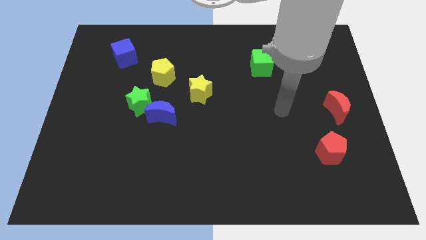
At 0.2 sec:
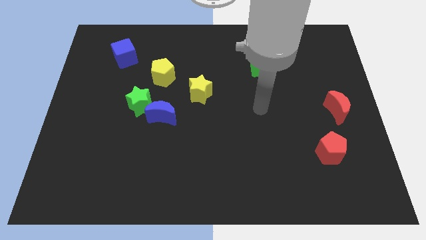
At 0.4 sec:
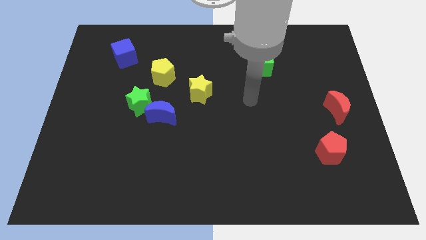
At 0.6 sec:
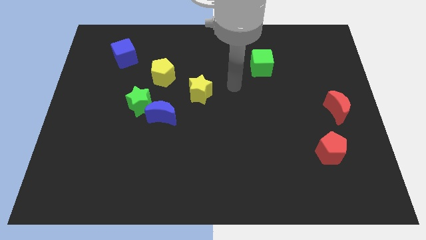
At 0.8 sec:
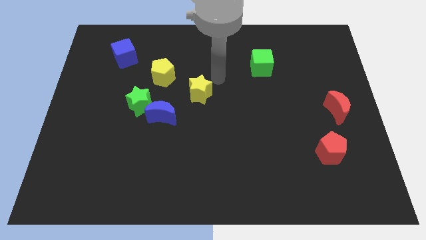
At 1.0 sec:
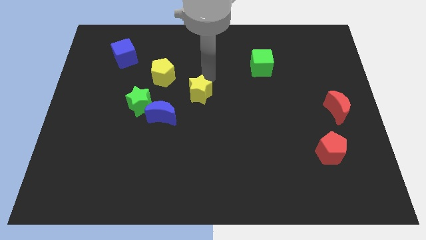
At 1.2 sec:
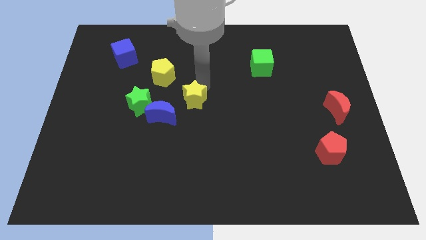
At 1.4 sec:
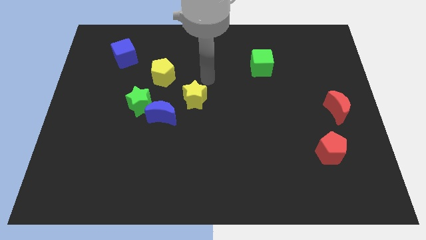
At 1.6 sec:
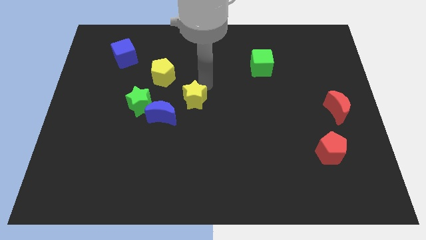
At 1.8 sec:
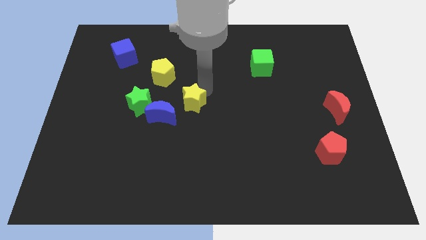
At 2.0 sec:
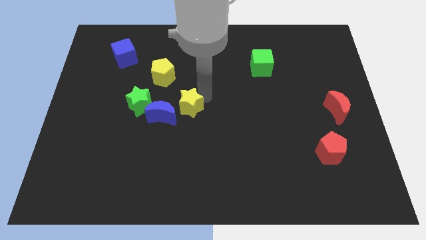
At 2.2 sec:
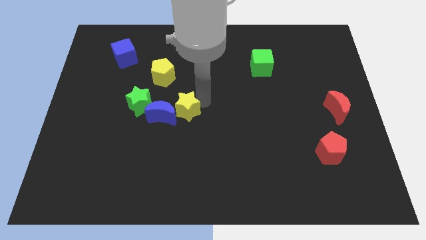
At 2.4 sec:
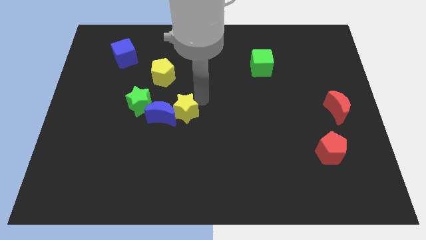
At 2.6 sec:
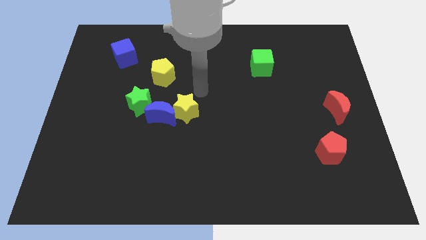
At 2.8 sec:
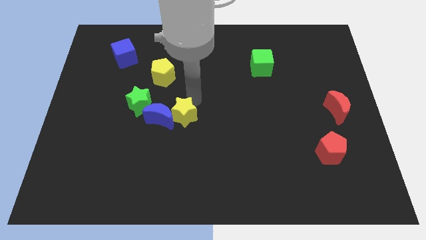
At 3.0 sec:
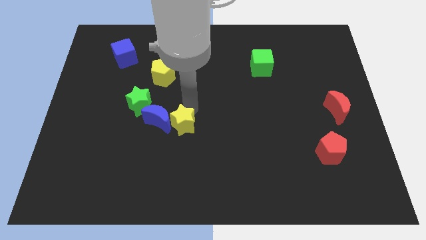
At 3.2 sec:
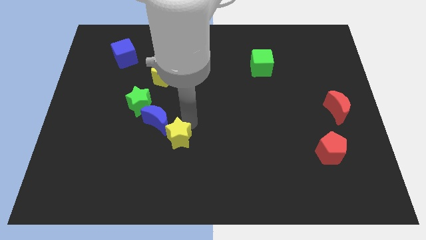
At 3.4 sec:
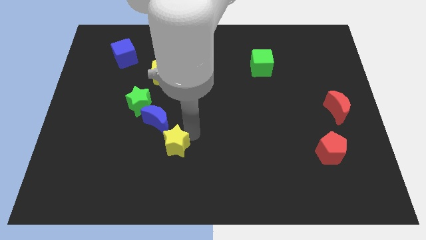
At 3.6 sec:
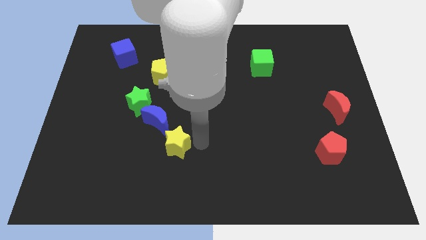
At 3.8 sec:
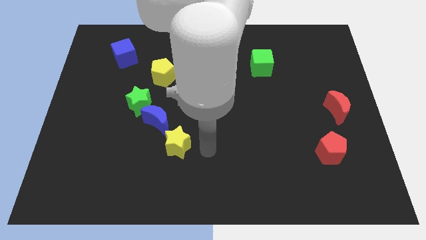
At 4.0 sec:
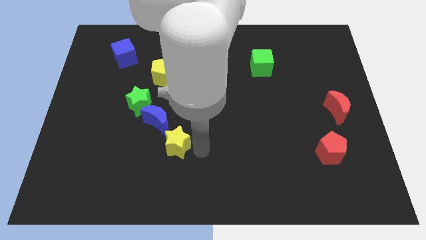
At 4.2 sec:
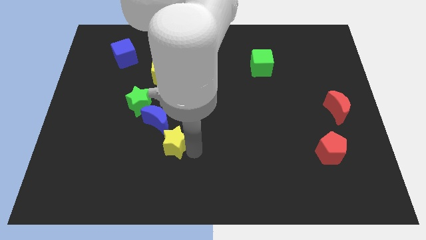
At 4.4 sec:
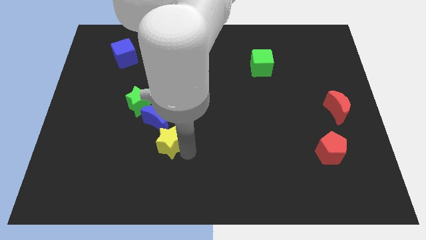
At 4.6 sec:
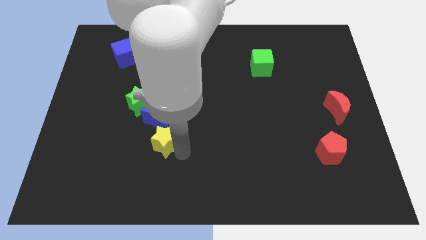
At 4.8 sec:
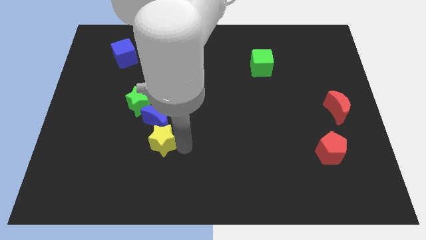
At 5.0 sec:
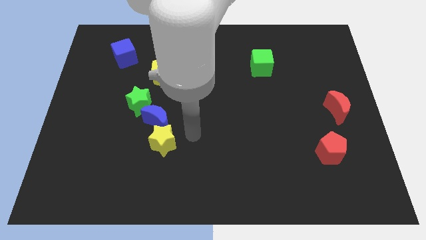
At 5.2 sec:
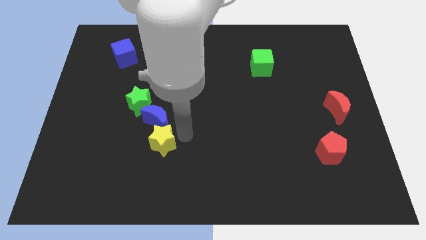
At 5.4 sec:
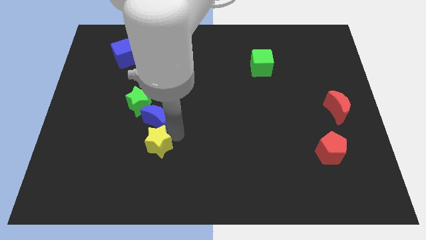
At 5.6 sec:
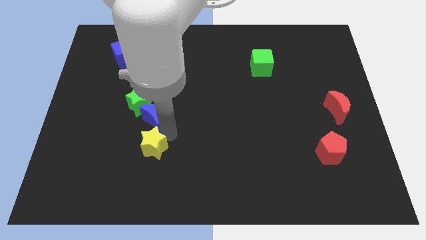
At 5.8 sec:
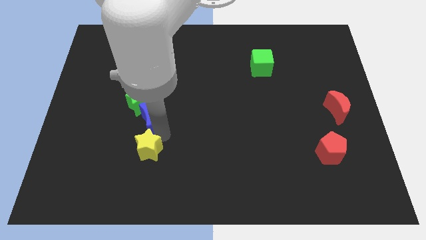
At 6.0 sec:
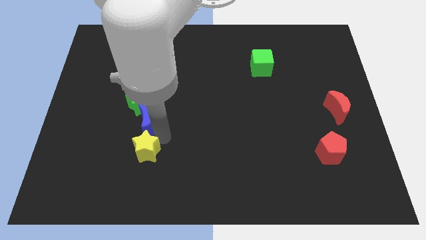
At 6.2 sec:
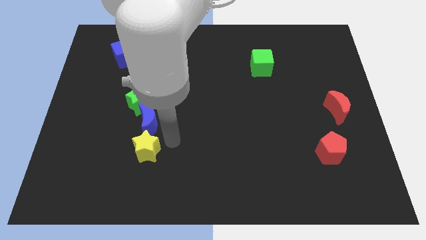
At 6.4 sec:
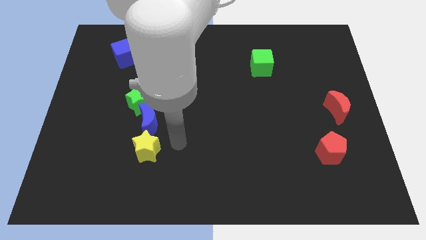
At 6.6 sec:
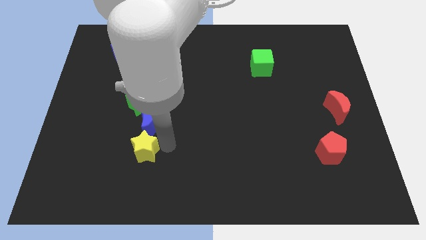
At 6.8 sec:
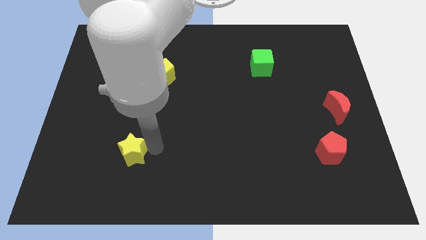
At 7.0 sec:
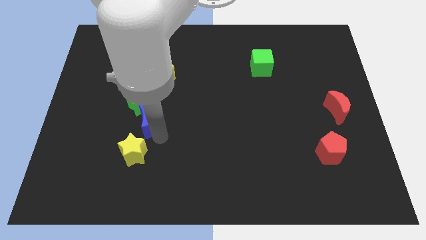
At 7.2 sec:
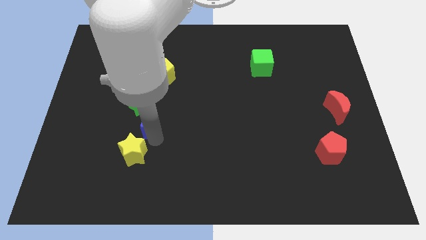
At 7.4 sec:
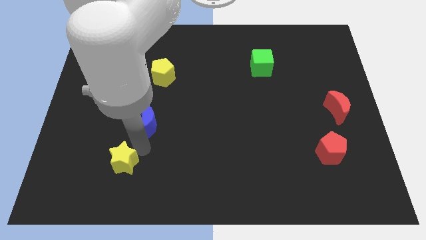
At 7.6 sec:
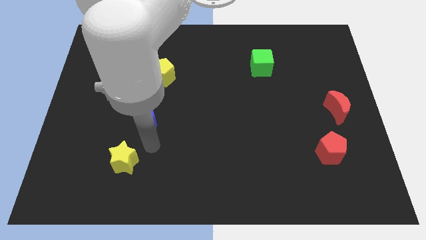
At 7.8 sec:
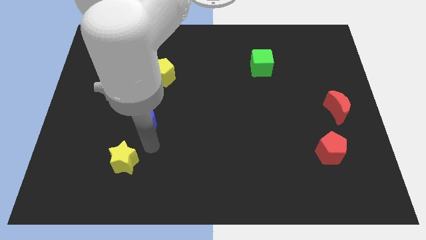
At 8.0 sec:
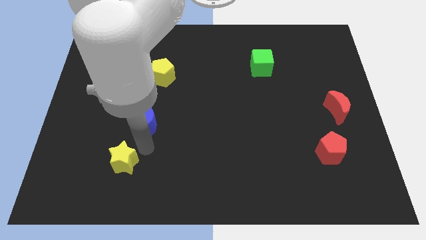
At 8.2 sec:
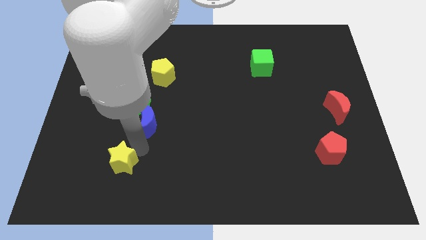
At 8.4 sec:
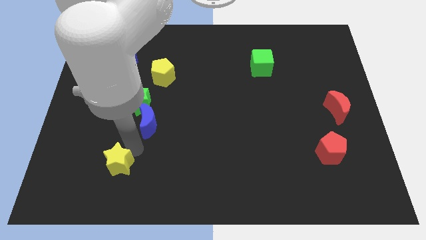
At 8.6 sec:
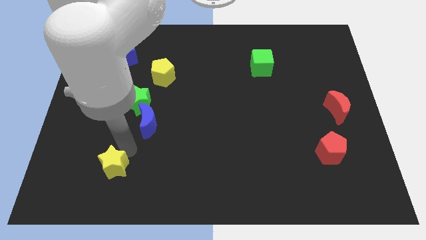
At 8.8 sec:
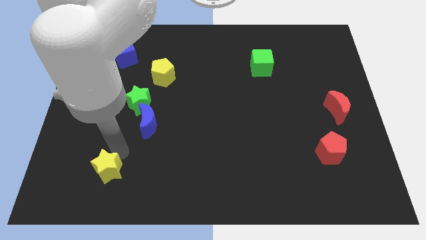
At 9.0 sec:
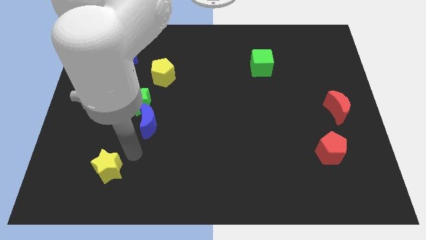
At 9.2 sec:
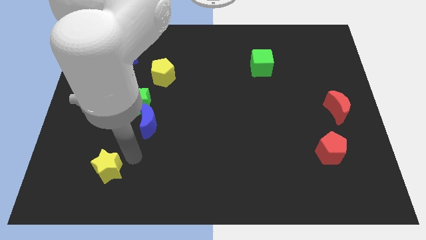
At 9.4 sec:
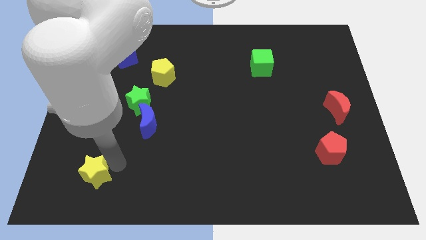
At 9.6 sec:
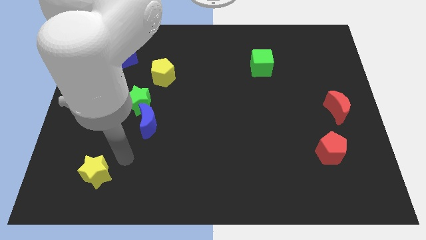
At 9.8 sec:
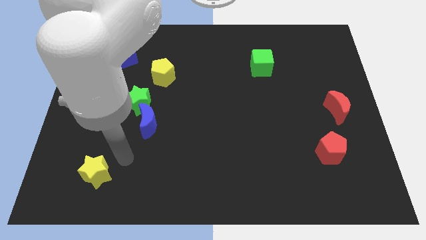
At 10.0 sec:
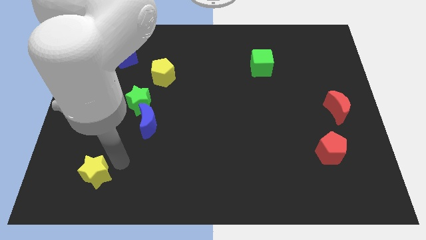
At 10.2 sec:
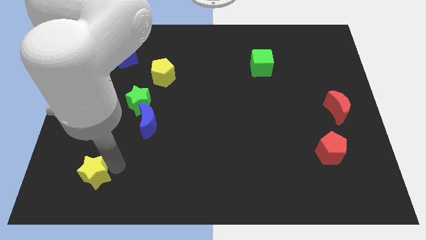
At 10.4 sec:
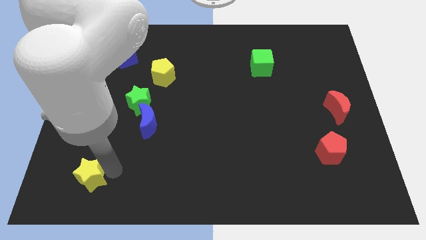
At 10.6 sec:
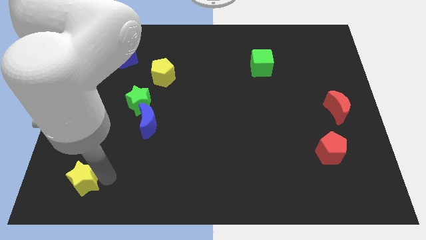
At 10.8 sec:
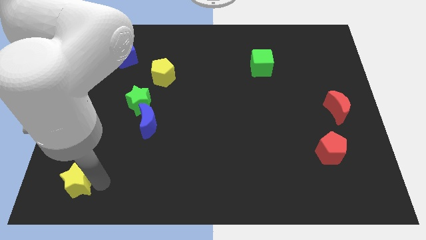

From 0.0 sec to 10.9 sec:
slide the yellow star to the bottom left corner

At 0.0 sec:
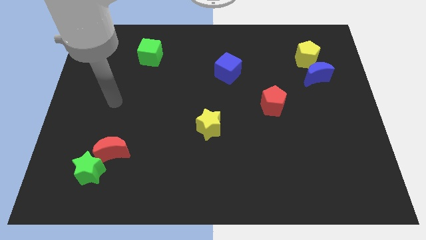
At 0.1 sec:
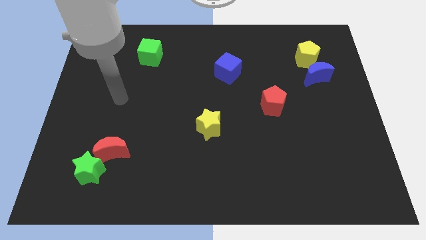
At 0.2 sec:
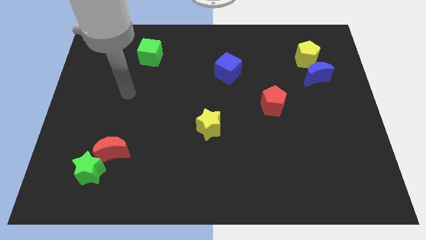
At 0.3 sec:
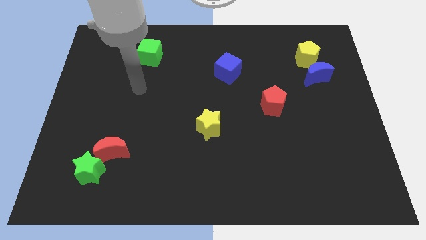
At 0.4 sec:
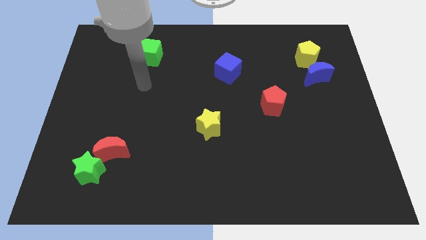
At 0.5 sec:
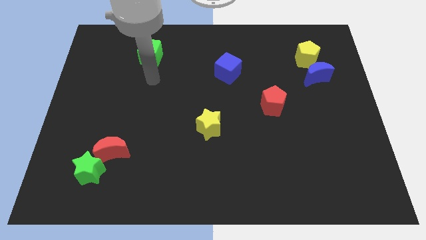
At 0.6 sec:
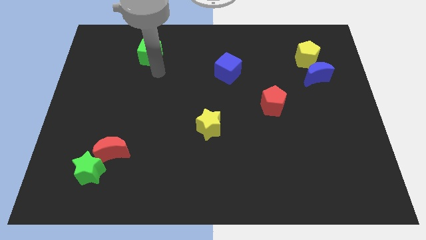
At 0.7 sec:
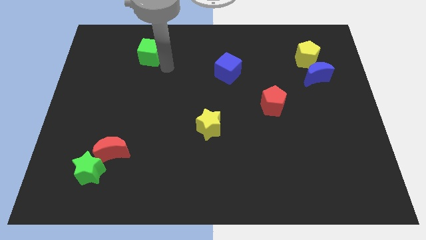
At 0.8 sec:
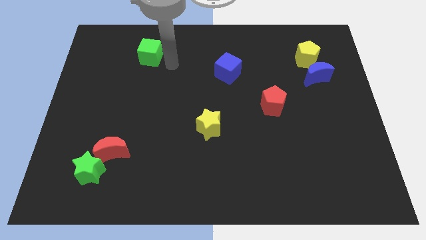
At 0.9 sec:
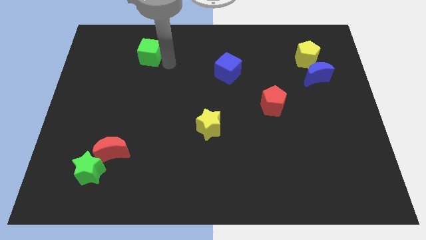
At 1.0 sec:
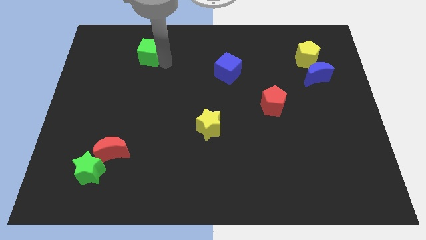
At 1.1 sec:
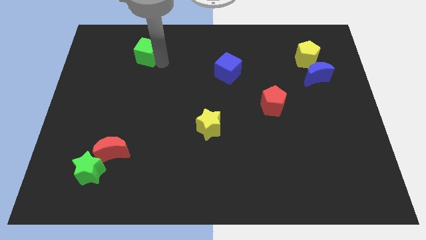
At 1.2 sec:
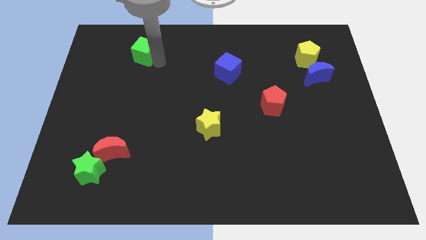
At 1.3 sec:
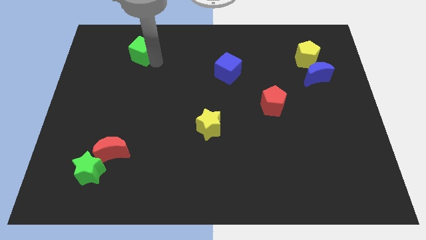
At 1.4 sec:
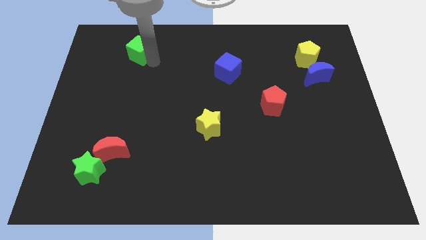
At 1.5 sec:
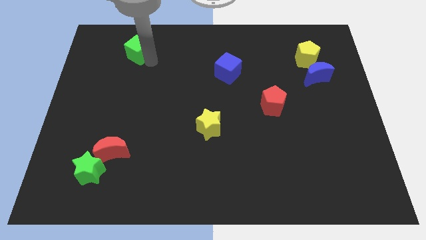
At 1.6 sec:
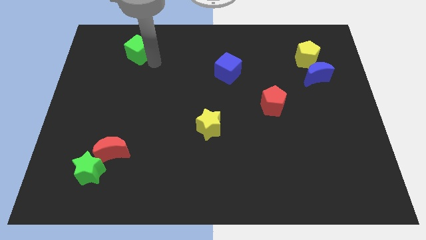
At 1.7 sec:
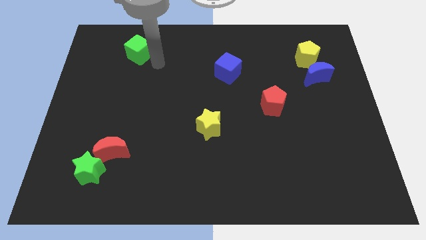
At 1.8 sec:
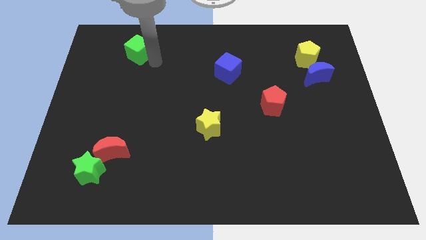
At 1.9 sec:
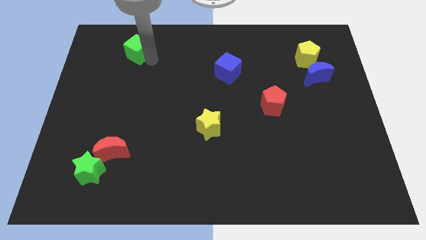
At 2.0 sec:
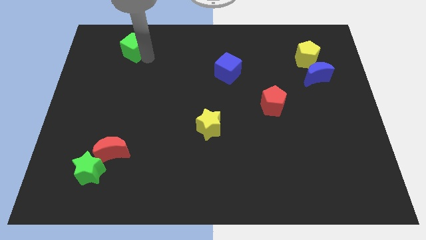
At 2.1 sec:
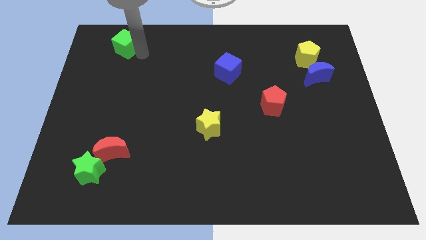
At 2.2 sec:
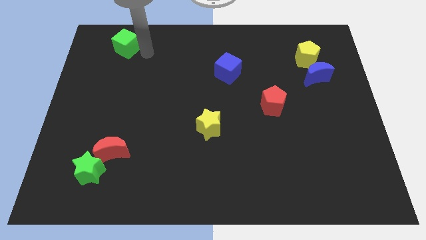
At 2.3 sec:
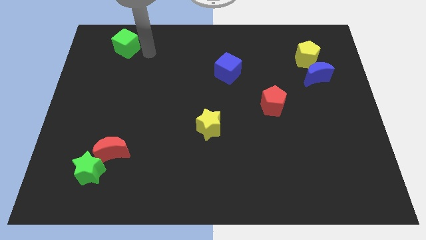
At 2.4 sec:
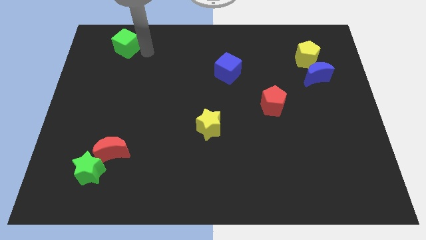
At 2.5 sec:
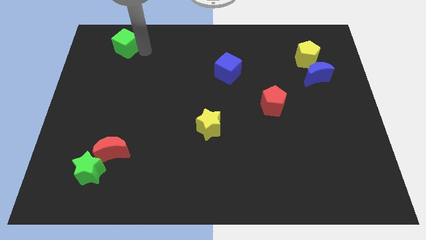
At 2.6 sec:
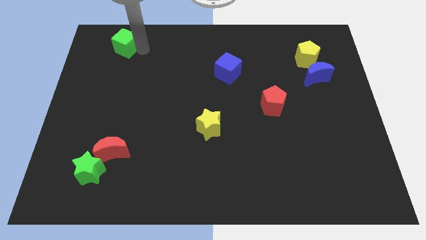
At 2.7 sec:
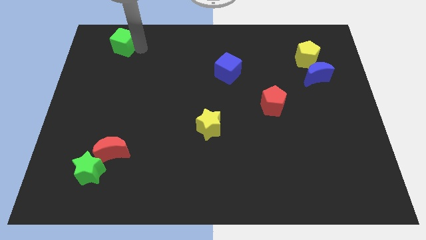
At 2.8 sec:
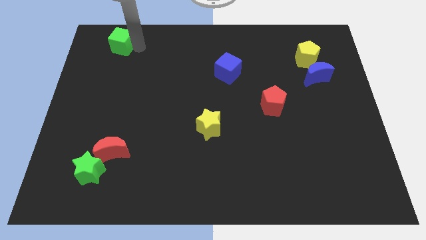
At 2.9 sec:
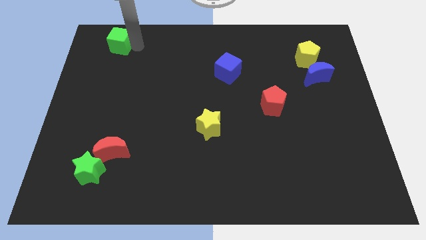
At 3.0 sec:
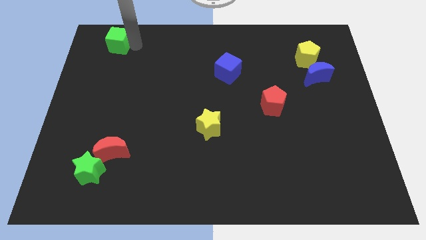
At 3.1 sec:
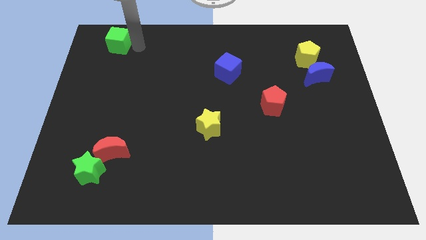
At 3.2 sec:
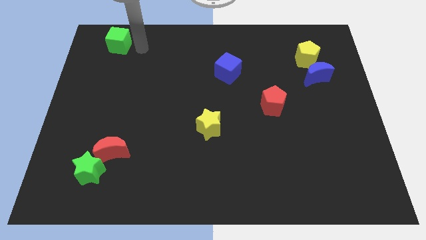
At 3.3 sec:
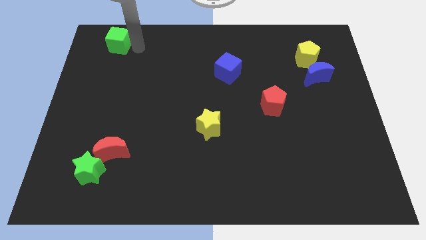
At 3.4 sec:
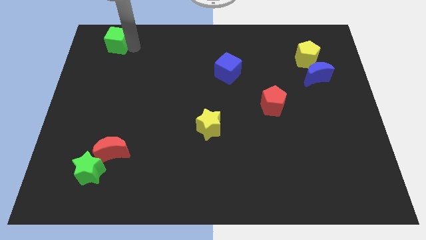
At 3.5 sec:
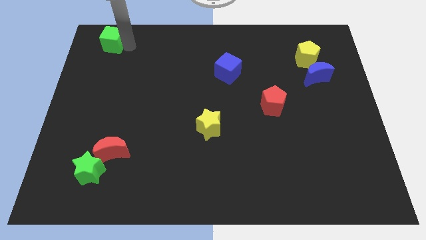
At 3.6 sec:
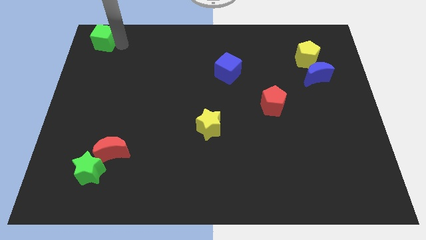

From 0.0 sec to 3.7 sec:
push the green cube to the top left of the board
